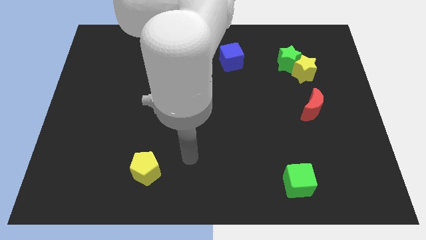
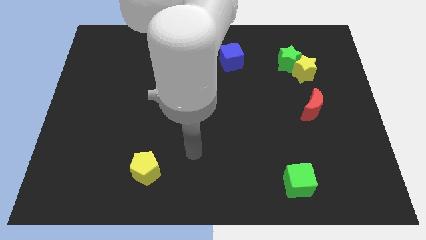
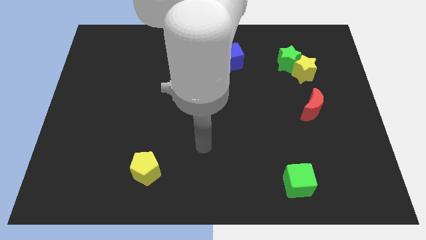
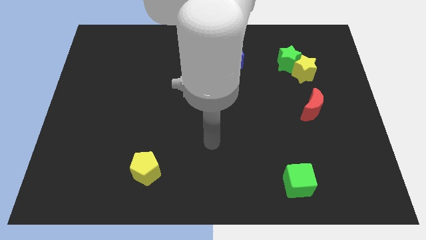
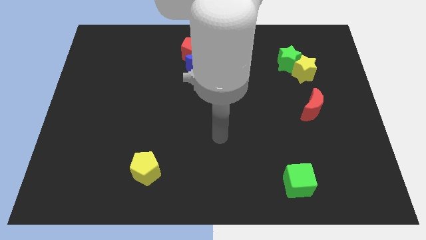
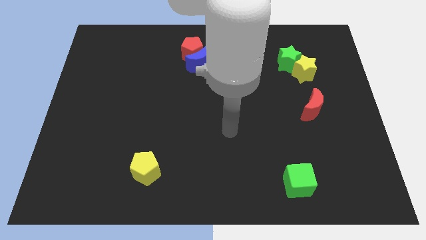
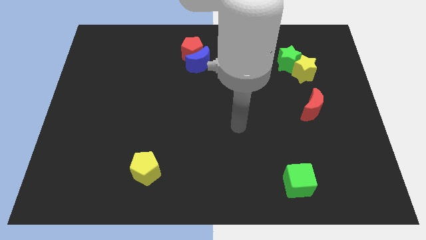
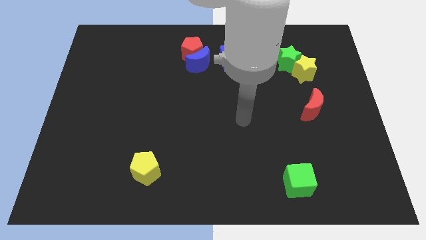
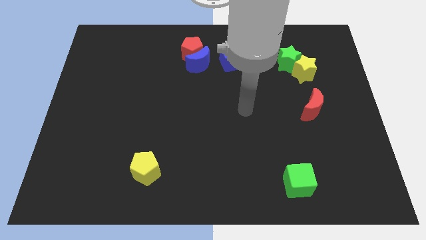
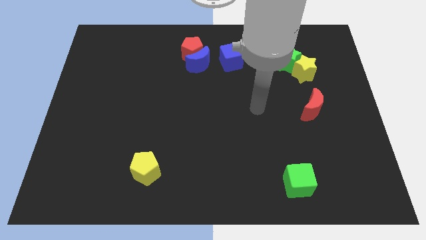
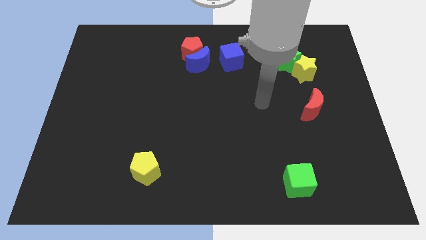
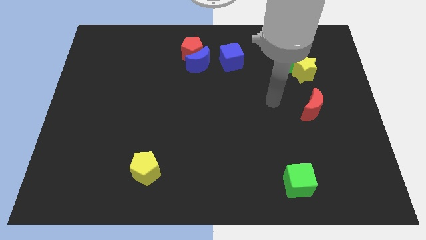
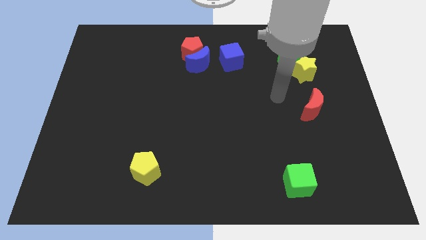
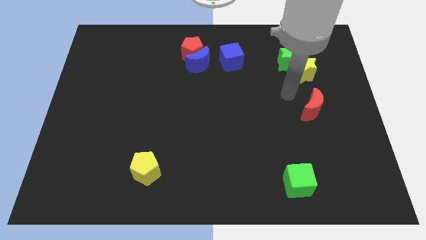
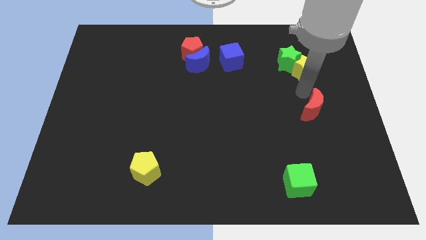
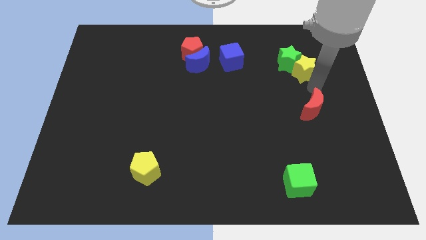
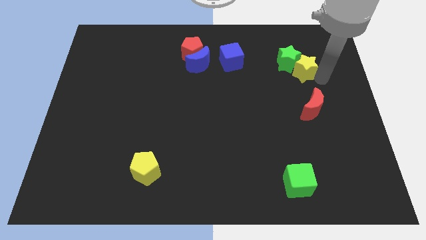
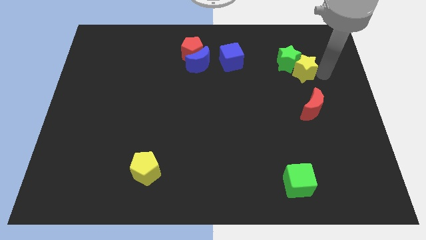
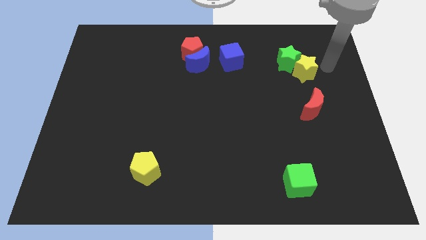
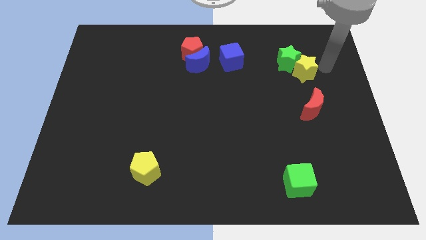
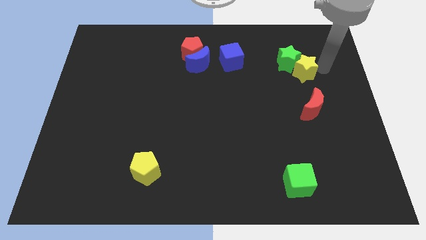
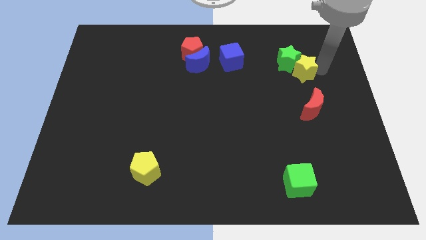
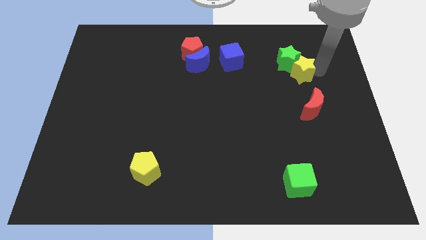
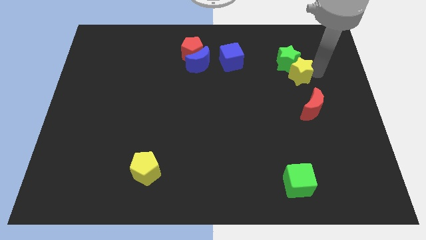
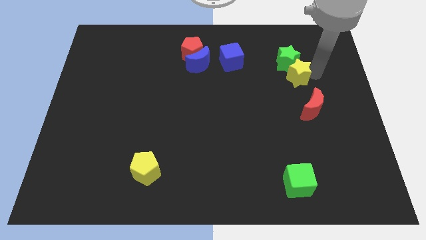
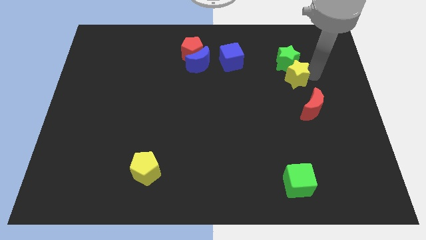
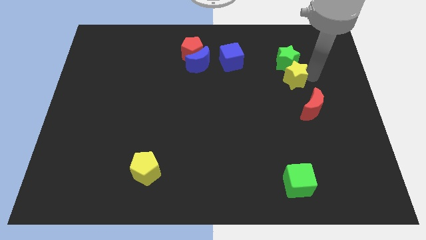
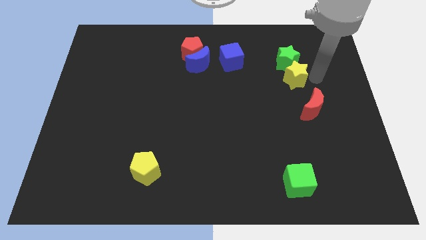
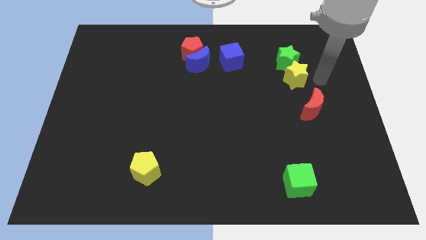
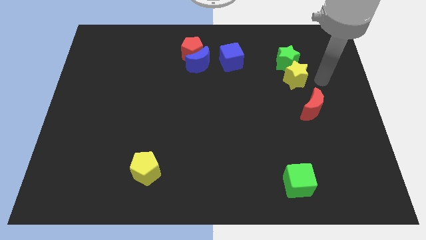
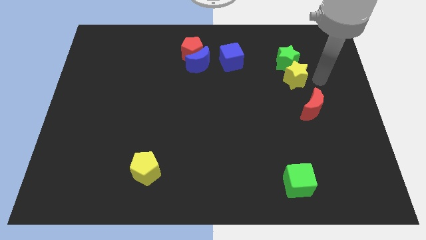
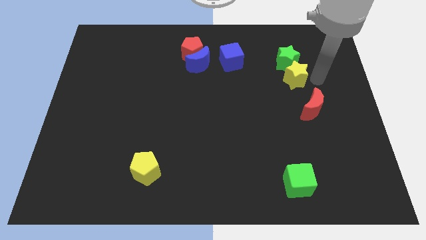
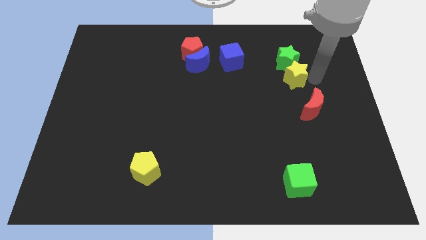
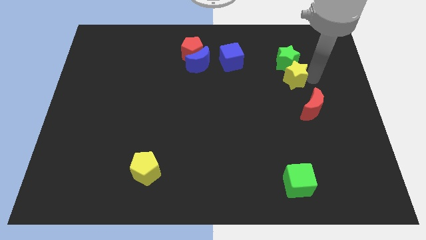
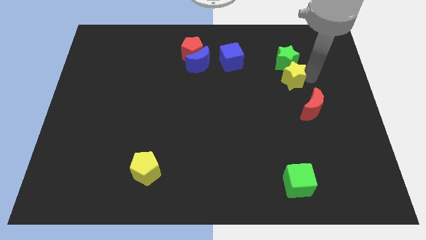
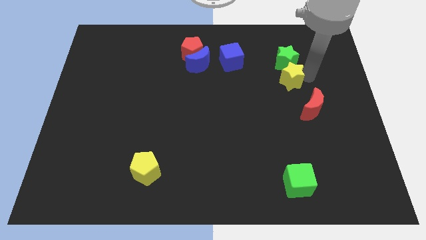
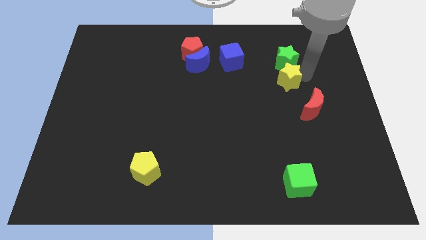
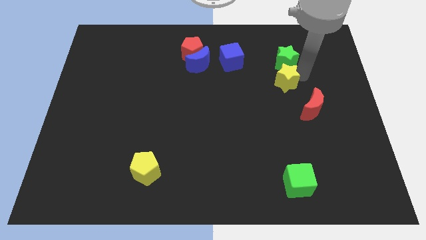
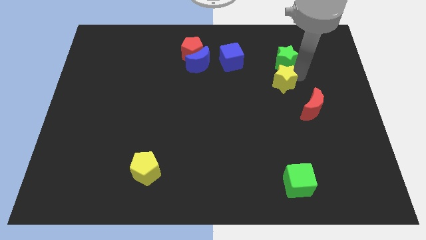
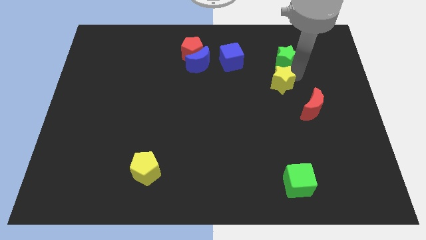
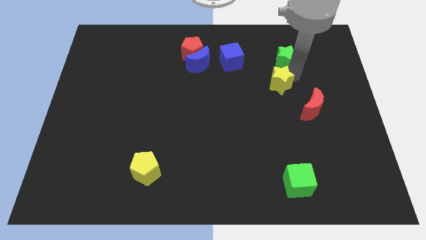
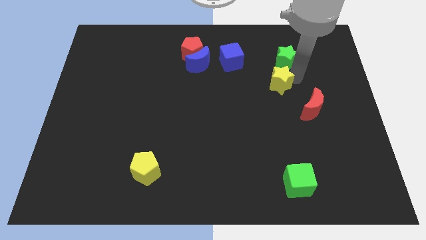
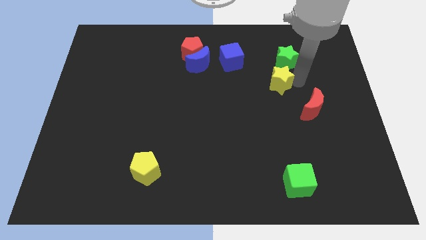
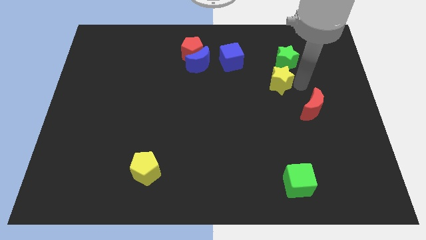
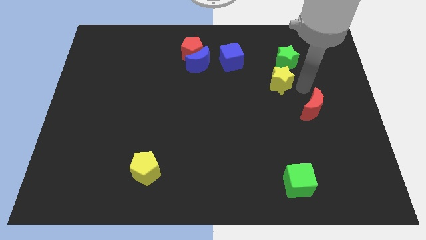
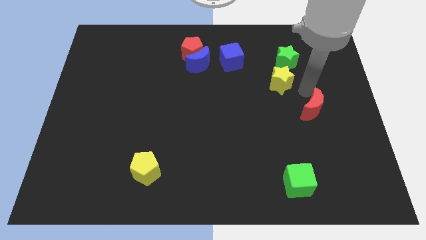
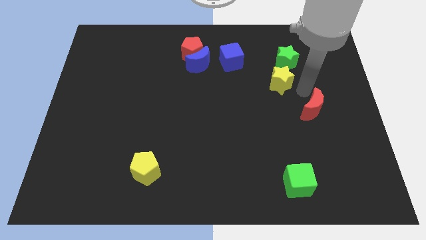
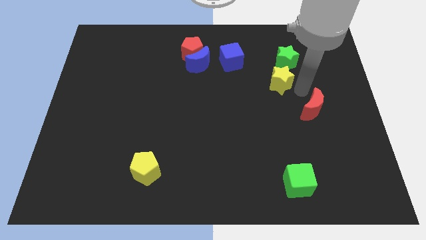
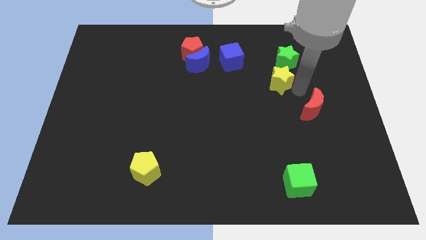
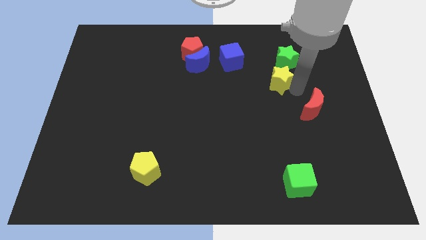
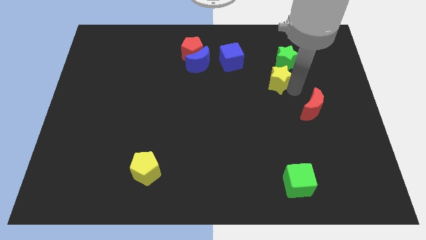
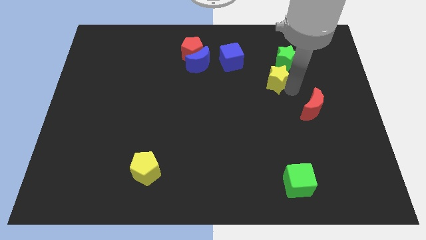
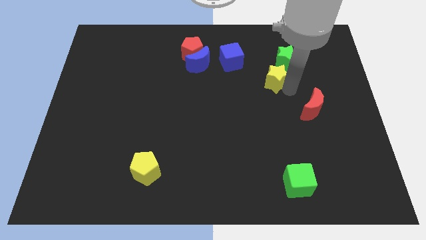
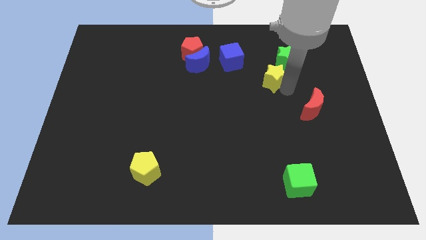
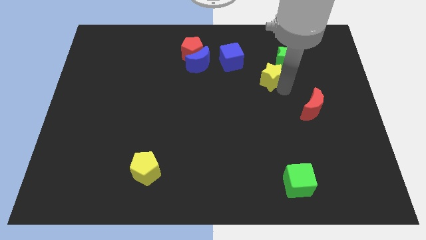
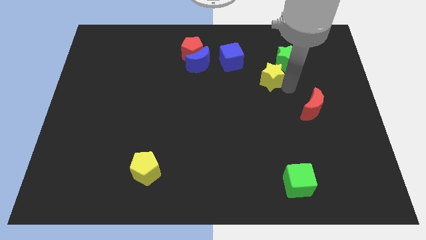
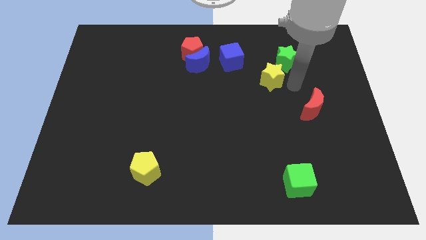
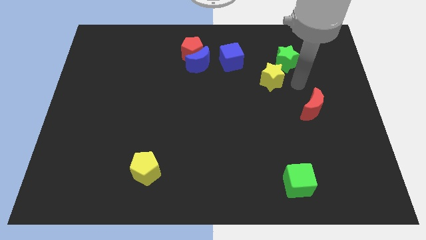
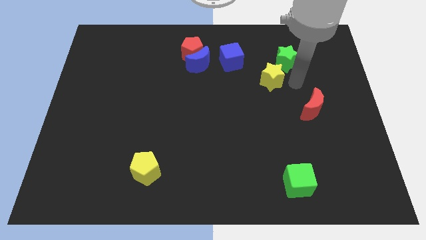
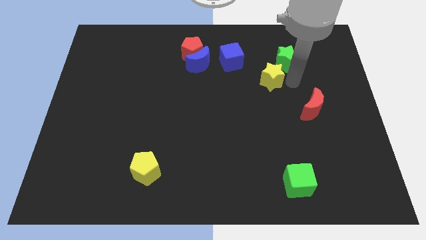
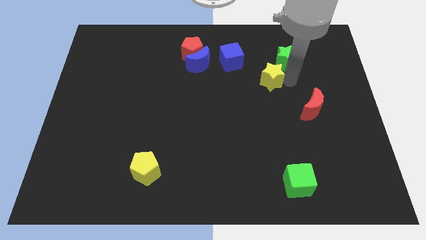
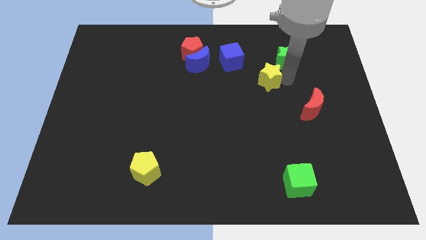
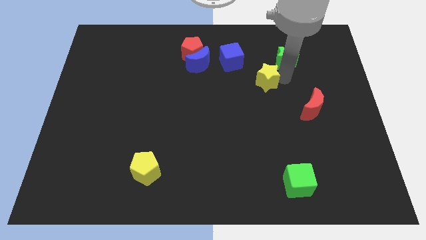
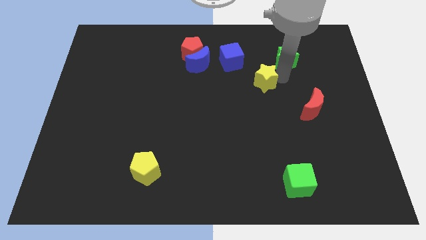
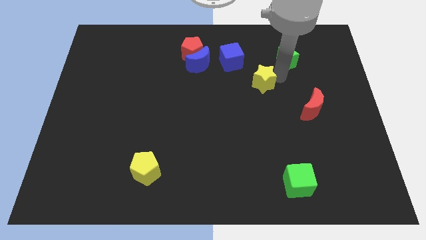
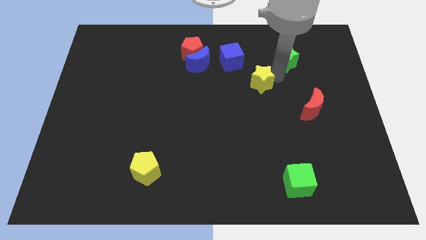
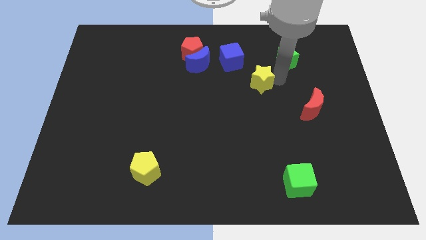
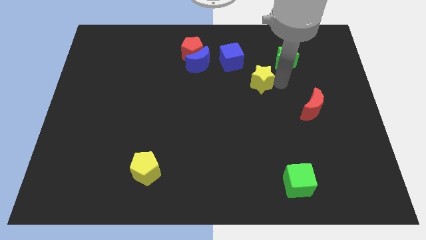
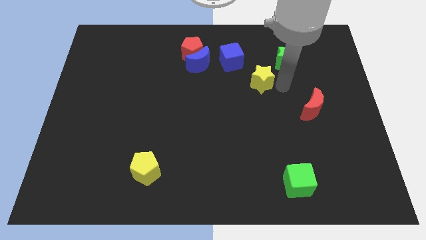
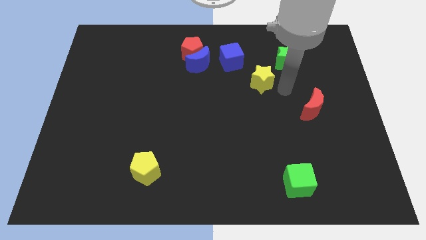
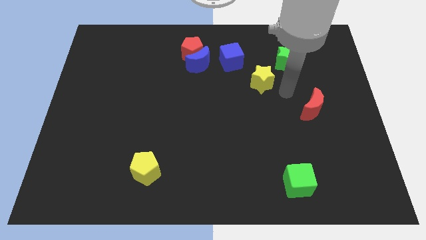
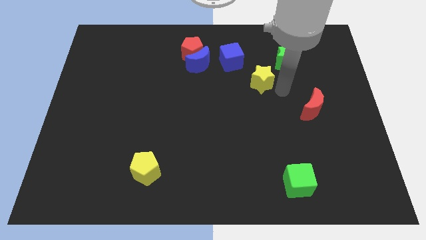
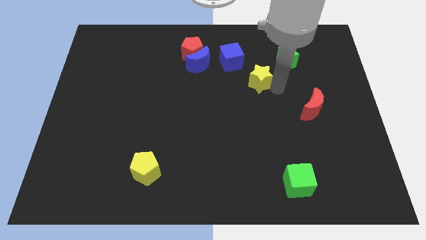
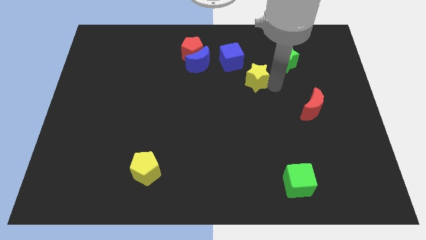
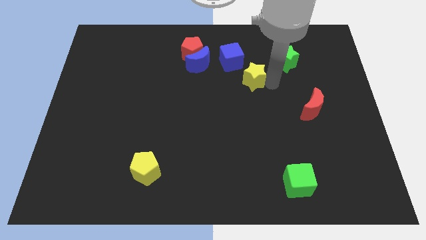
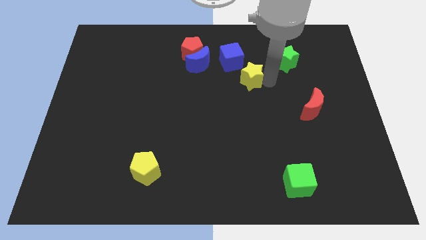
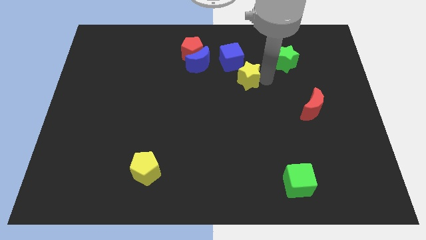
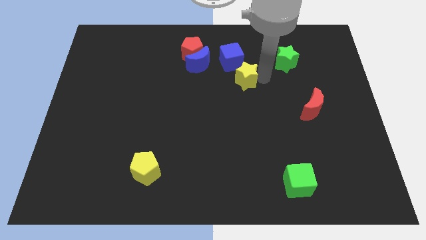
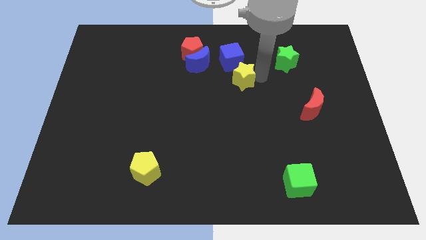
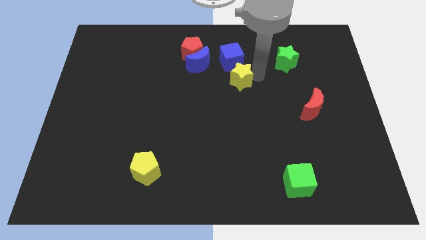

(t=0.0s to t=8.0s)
put the yellow star diagonally down and to the right of the blue moon
